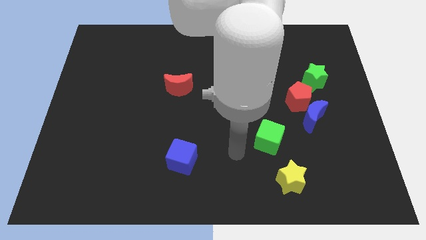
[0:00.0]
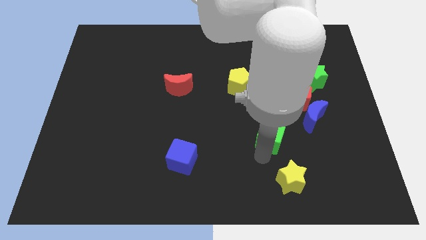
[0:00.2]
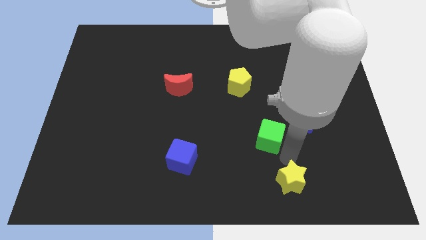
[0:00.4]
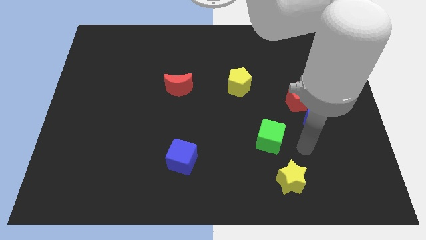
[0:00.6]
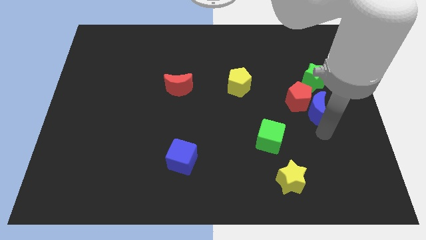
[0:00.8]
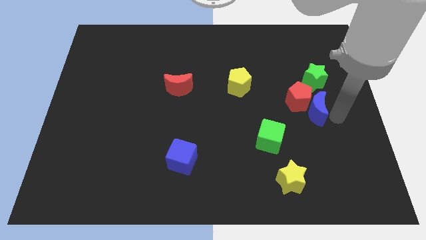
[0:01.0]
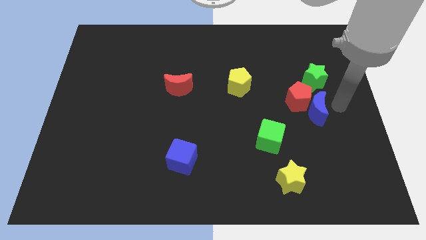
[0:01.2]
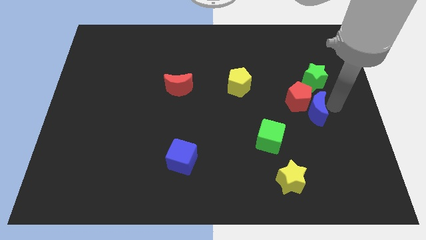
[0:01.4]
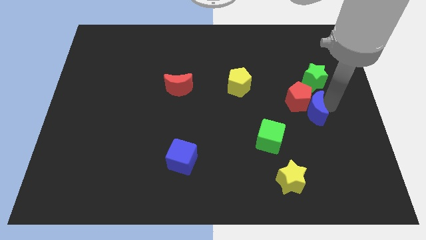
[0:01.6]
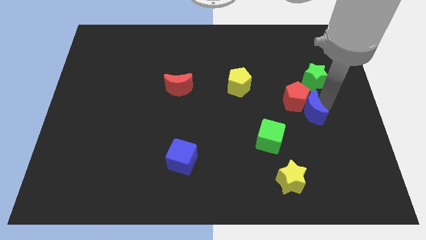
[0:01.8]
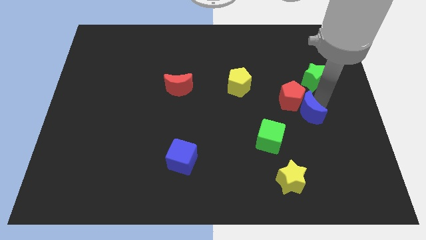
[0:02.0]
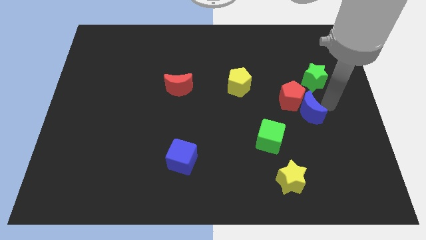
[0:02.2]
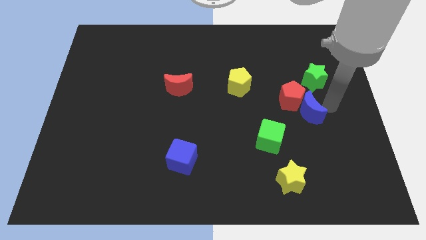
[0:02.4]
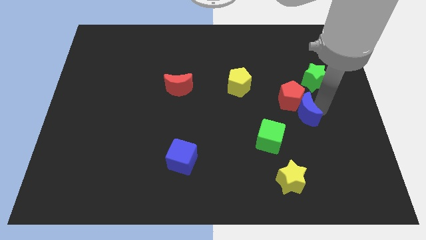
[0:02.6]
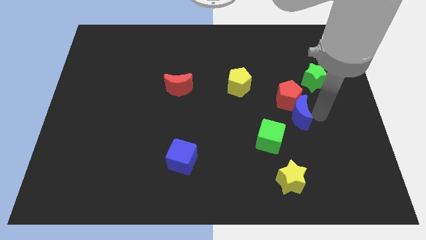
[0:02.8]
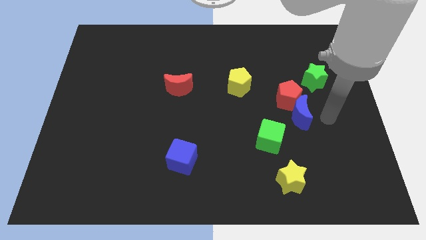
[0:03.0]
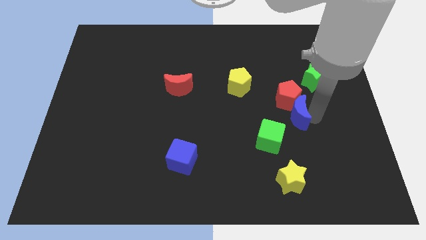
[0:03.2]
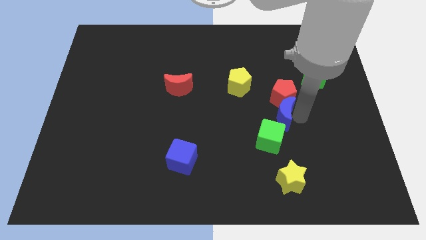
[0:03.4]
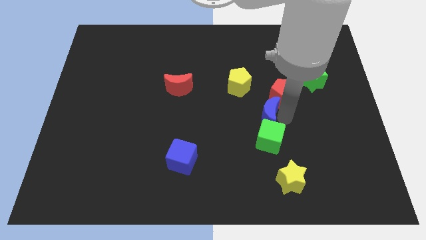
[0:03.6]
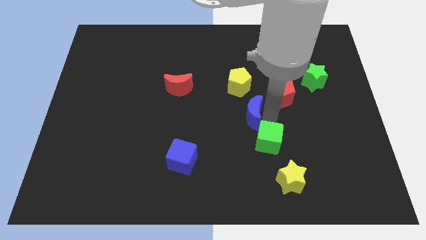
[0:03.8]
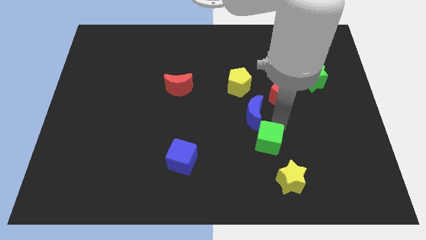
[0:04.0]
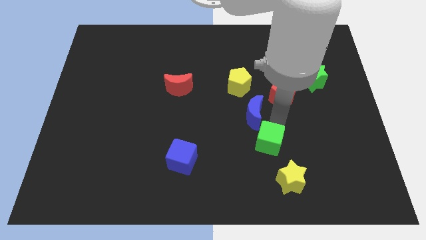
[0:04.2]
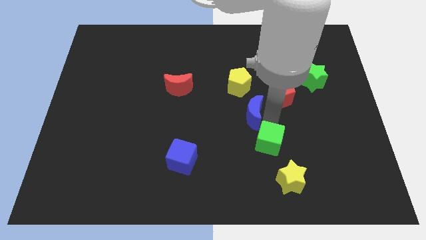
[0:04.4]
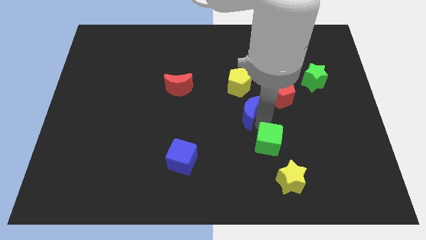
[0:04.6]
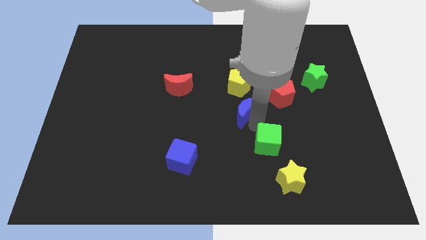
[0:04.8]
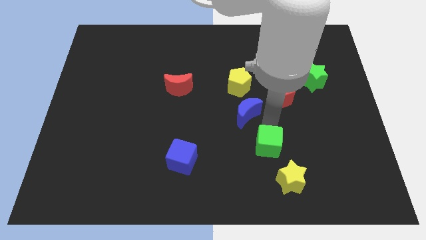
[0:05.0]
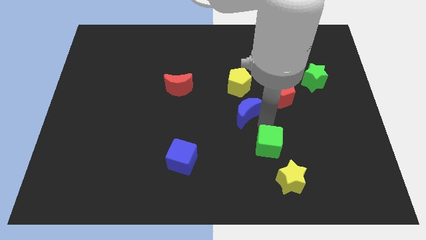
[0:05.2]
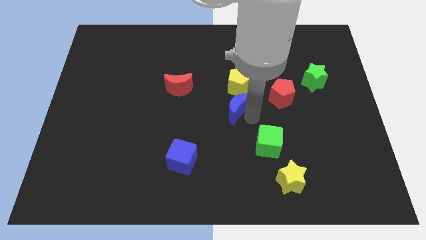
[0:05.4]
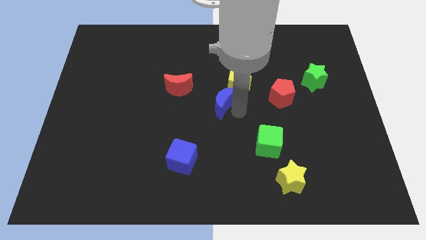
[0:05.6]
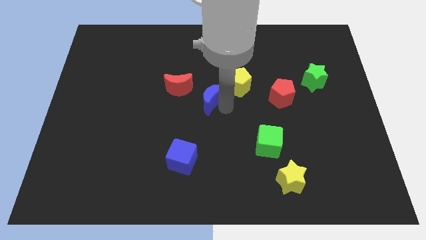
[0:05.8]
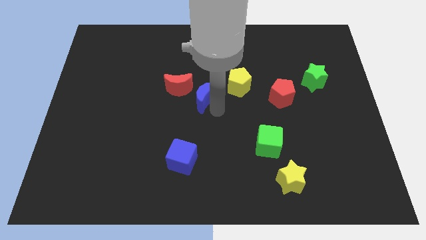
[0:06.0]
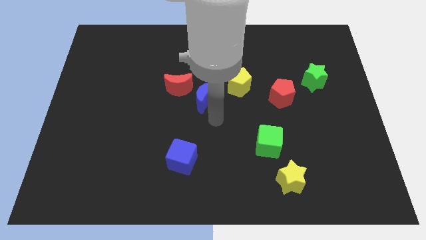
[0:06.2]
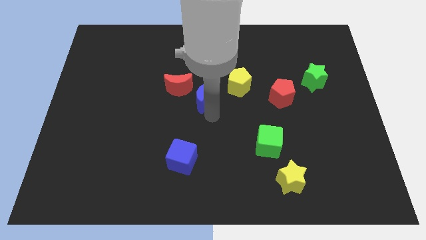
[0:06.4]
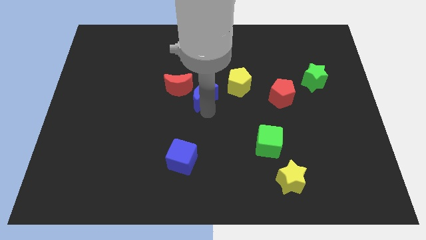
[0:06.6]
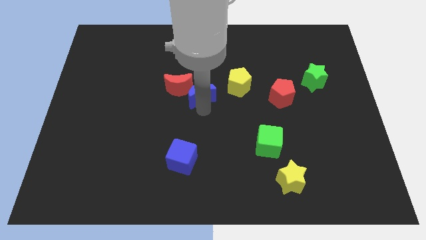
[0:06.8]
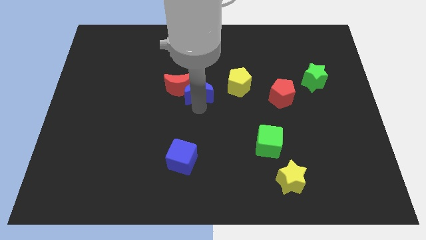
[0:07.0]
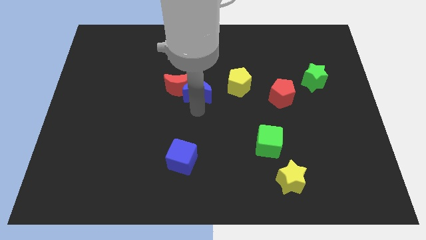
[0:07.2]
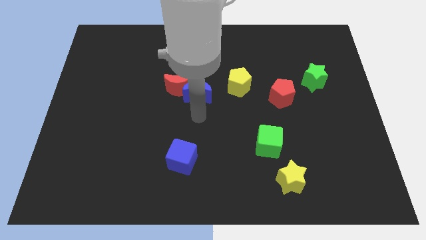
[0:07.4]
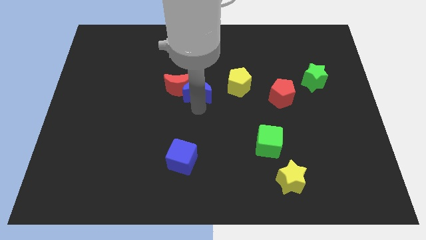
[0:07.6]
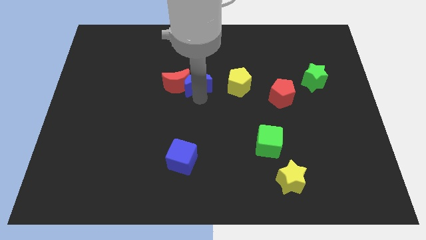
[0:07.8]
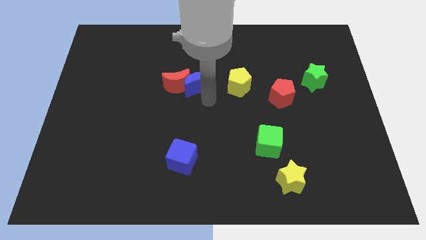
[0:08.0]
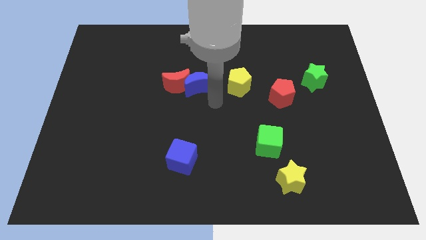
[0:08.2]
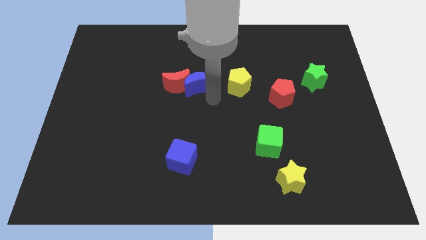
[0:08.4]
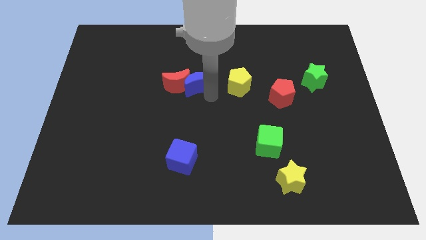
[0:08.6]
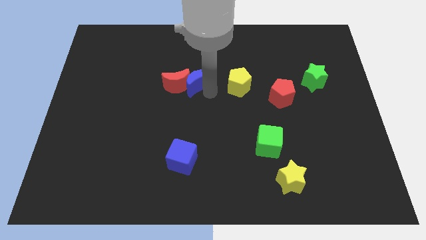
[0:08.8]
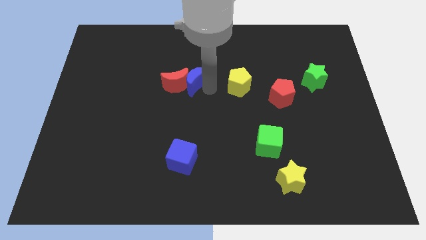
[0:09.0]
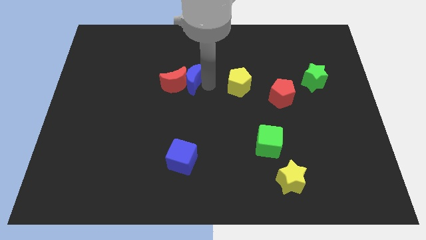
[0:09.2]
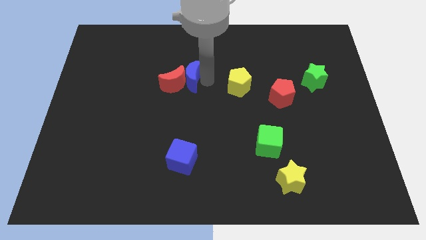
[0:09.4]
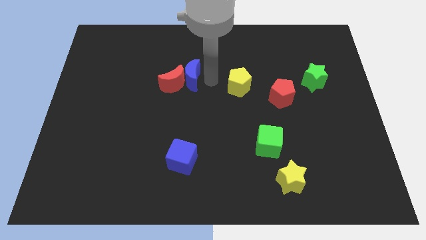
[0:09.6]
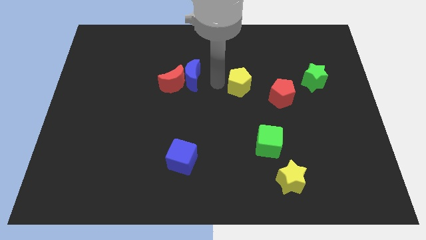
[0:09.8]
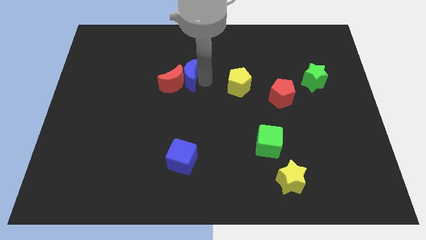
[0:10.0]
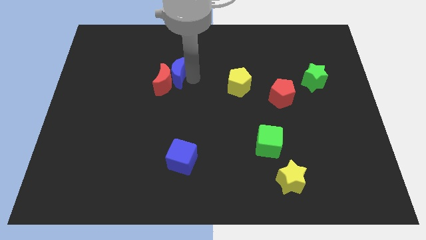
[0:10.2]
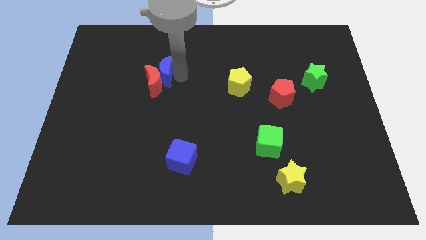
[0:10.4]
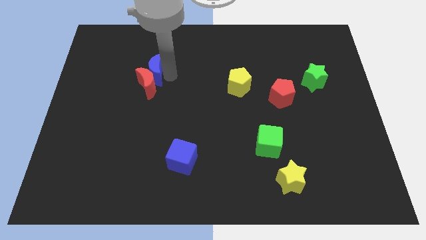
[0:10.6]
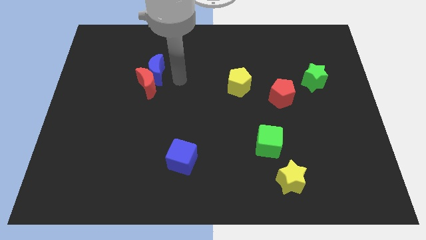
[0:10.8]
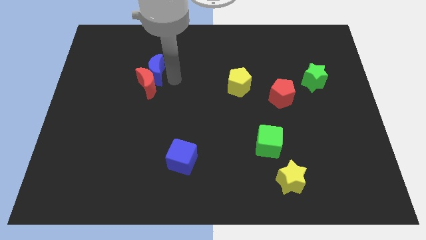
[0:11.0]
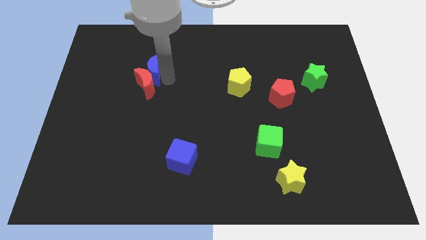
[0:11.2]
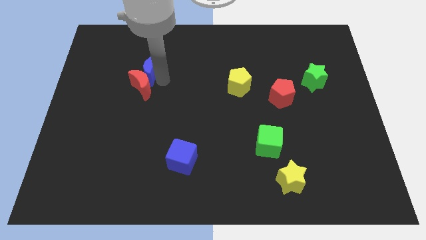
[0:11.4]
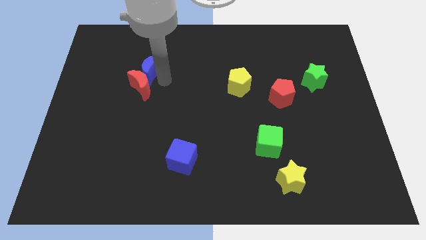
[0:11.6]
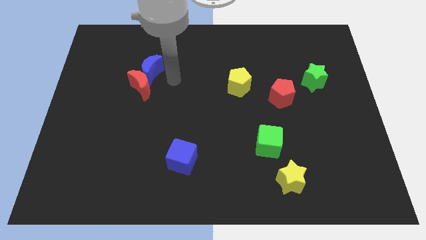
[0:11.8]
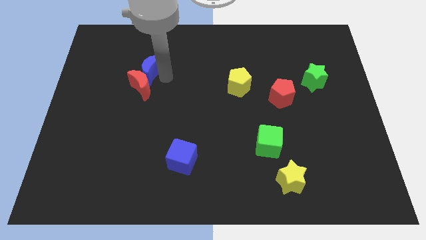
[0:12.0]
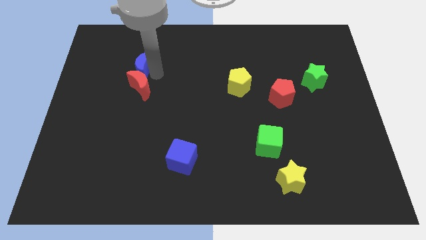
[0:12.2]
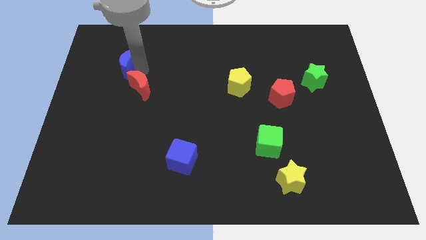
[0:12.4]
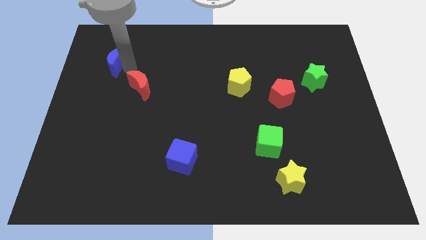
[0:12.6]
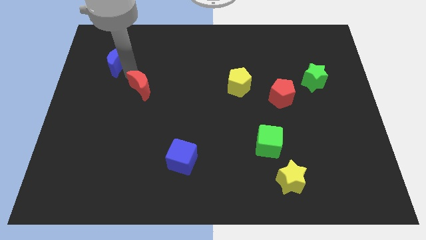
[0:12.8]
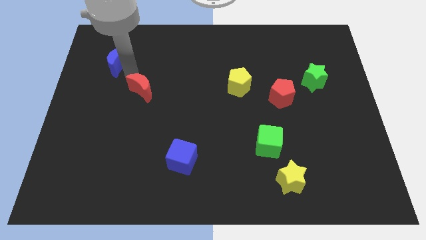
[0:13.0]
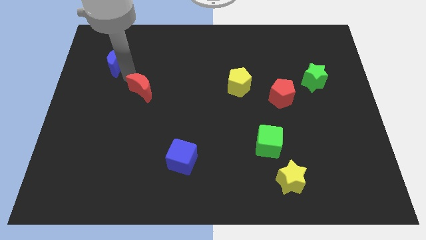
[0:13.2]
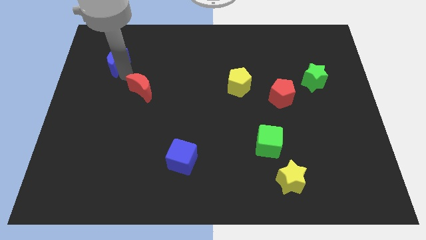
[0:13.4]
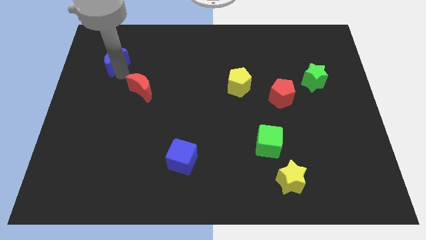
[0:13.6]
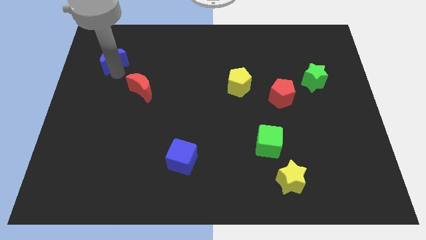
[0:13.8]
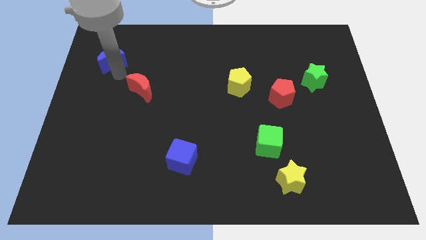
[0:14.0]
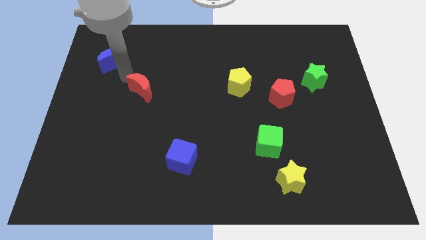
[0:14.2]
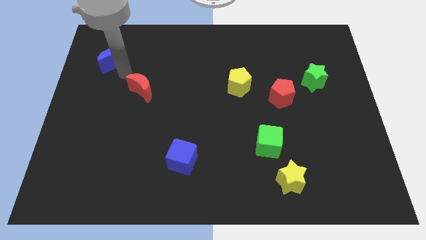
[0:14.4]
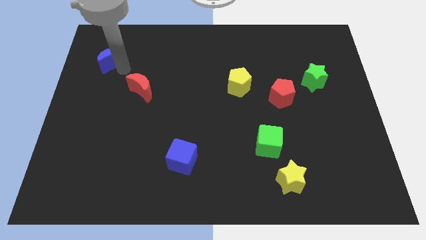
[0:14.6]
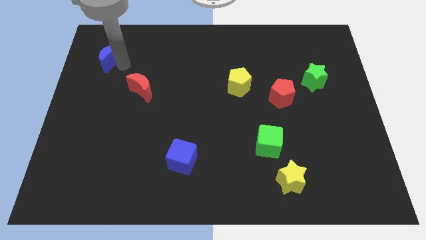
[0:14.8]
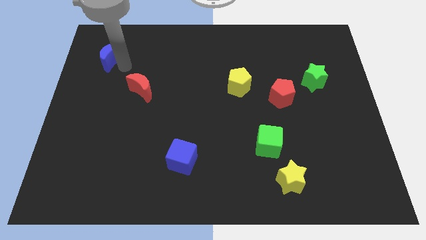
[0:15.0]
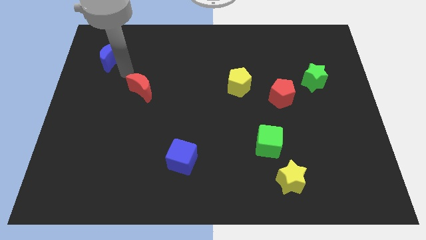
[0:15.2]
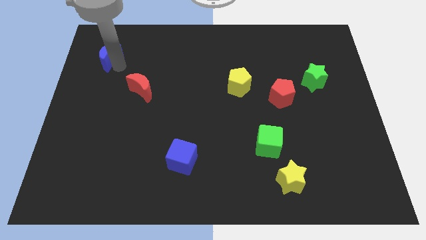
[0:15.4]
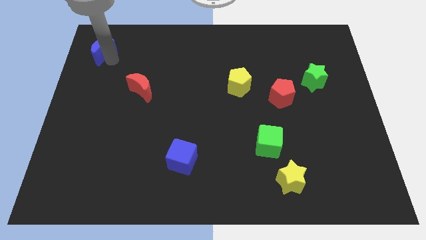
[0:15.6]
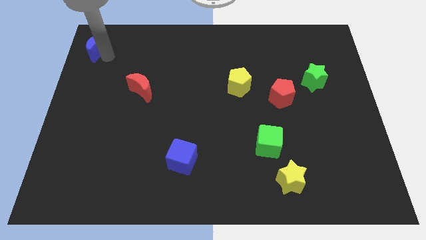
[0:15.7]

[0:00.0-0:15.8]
push the blue moon to the top left
